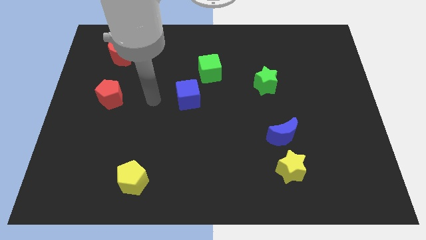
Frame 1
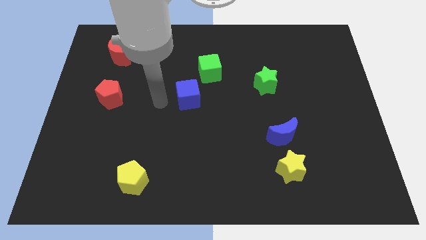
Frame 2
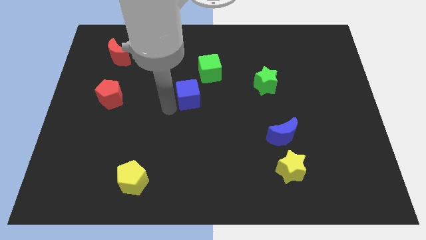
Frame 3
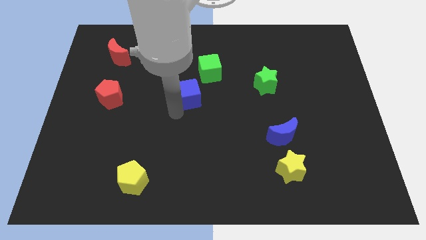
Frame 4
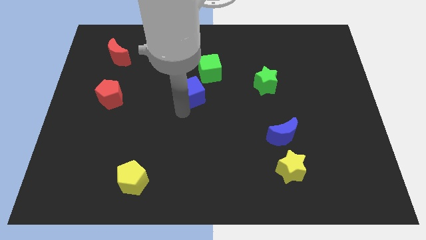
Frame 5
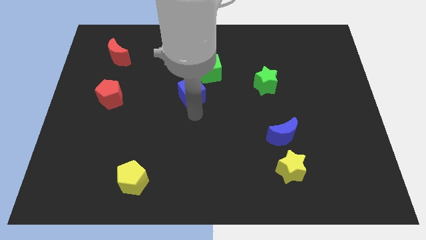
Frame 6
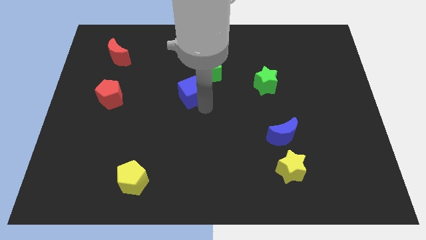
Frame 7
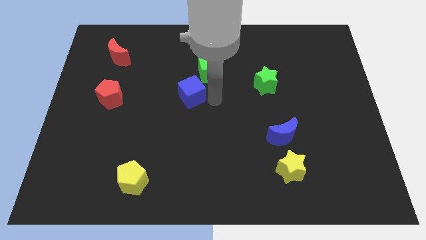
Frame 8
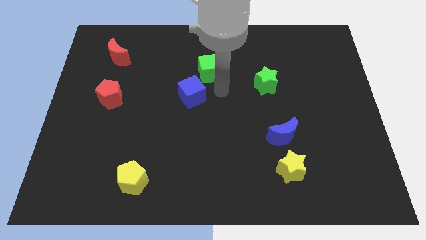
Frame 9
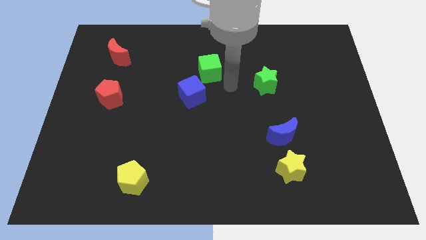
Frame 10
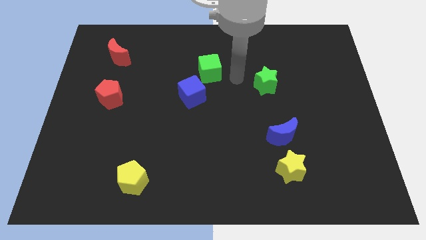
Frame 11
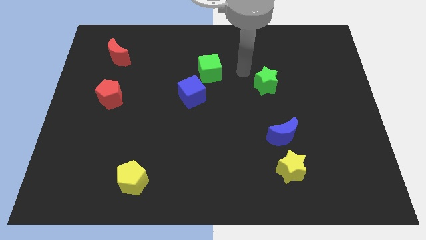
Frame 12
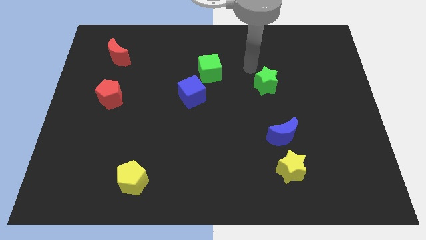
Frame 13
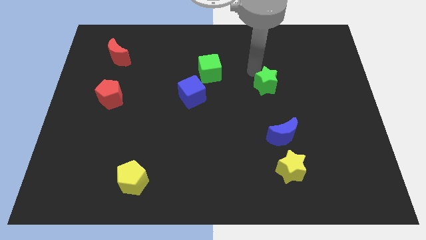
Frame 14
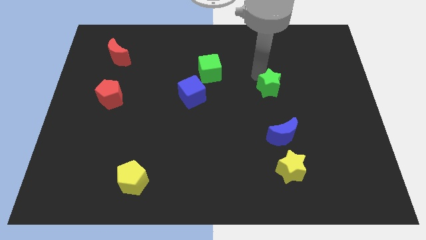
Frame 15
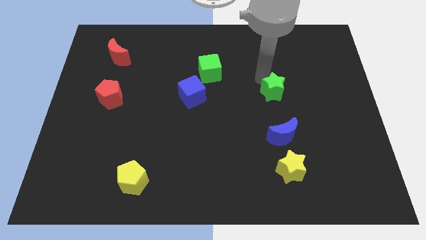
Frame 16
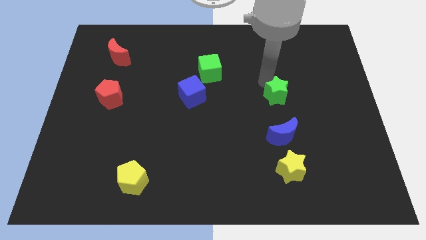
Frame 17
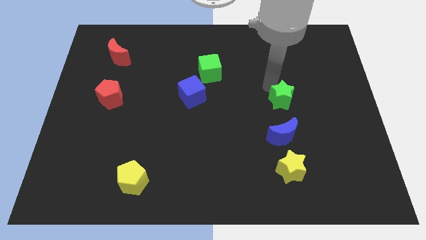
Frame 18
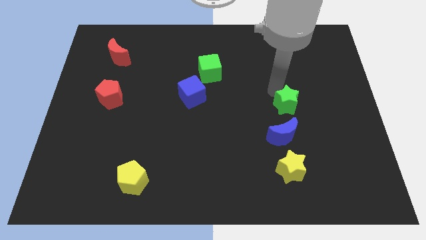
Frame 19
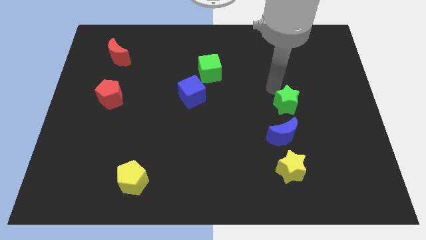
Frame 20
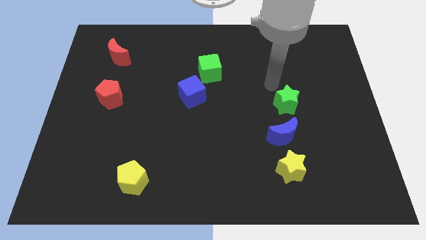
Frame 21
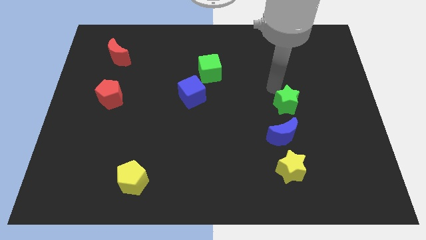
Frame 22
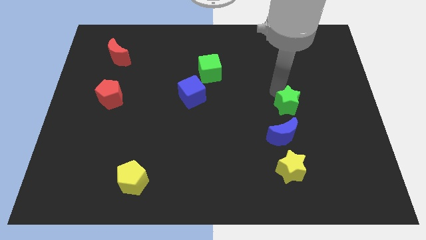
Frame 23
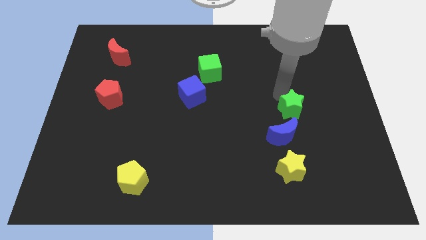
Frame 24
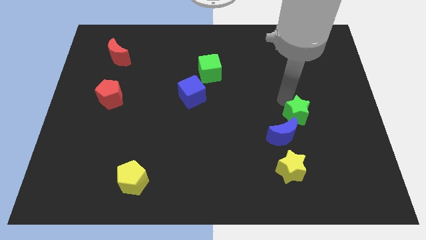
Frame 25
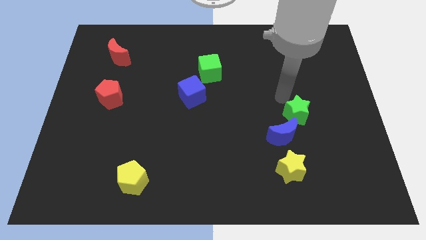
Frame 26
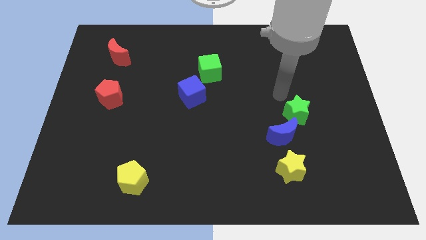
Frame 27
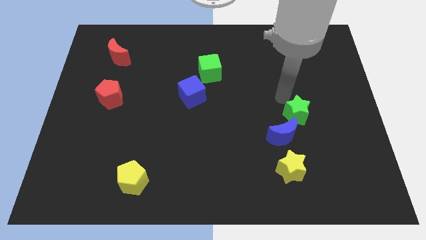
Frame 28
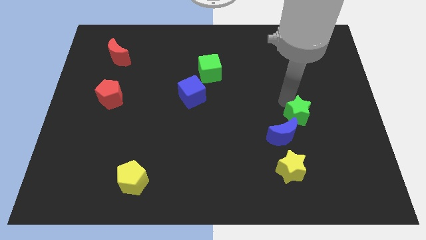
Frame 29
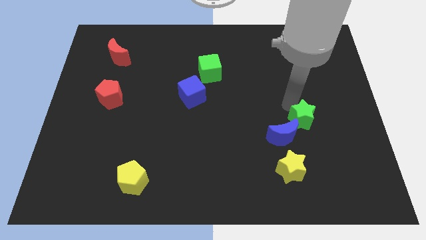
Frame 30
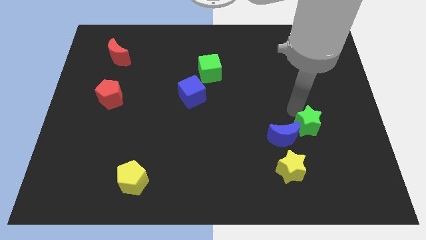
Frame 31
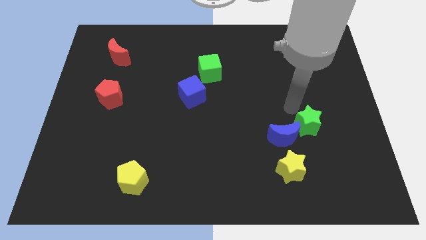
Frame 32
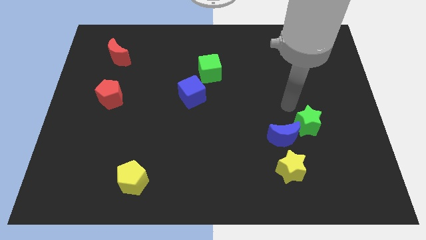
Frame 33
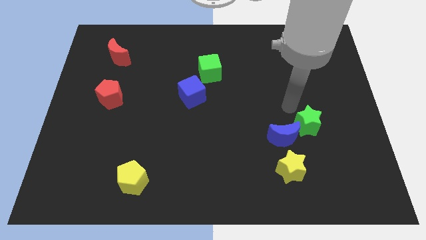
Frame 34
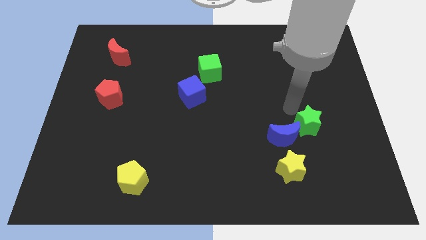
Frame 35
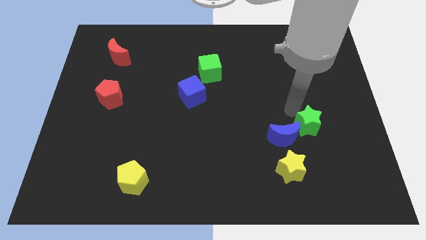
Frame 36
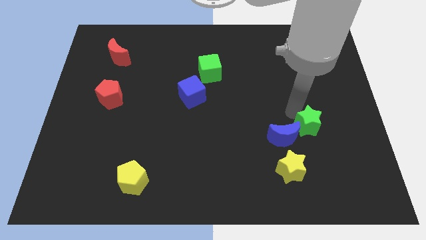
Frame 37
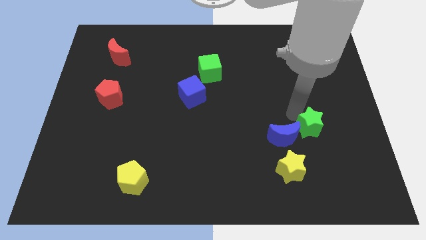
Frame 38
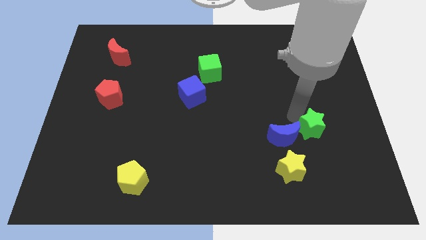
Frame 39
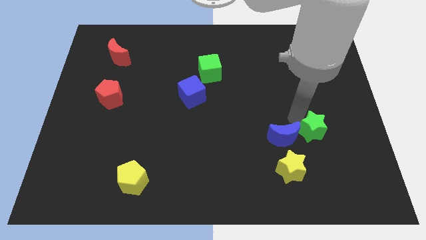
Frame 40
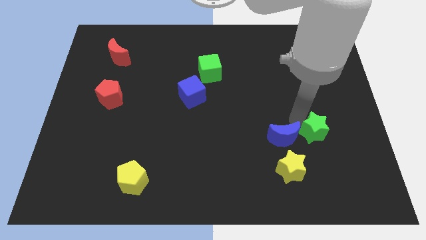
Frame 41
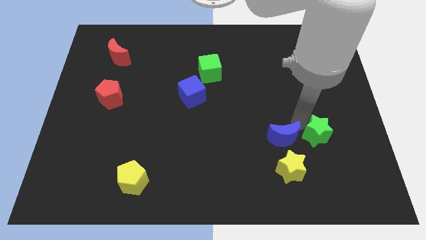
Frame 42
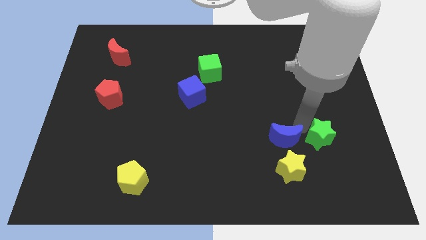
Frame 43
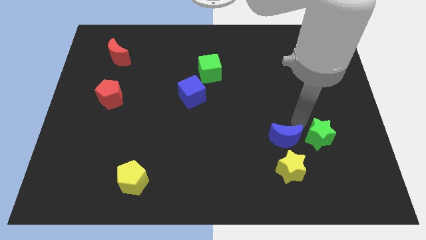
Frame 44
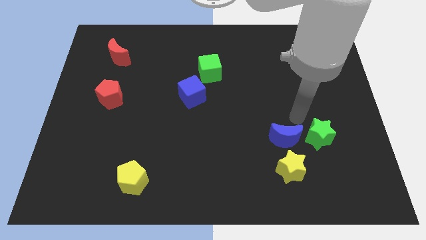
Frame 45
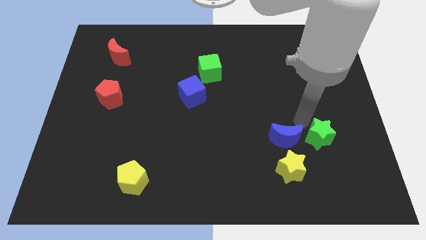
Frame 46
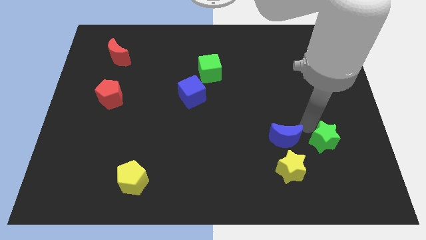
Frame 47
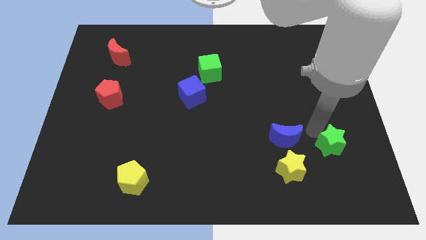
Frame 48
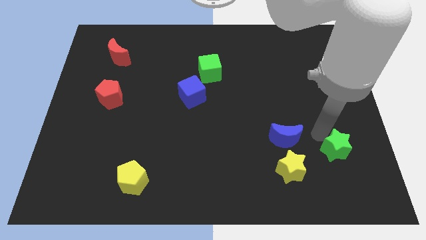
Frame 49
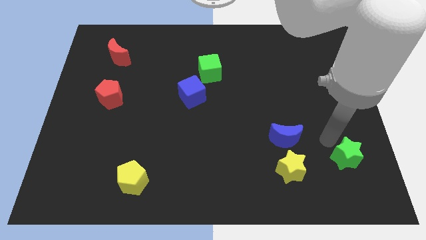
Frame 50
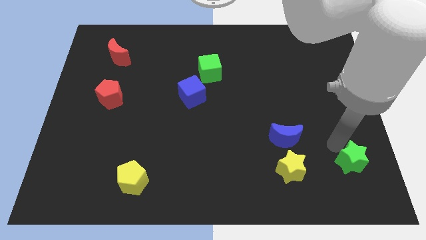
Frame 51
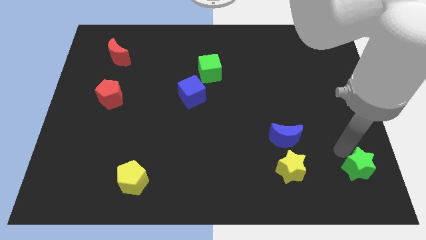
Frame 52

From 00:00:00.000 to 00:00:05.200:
slide the green star to the bottom right
